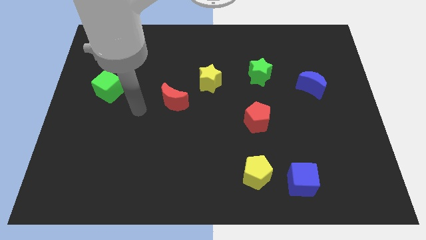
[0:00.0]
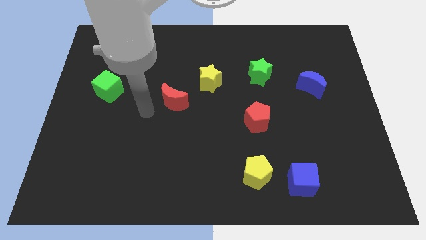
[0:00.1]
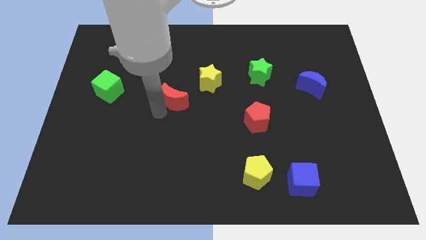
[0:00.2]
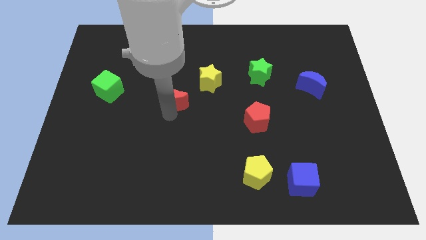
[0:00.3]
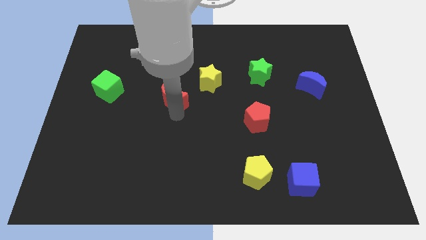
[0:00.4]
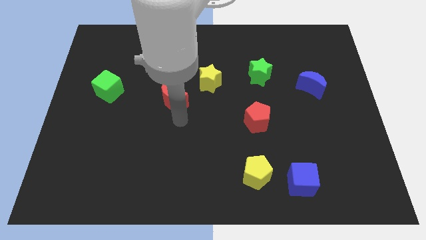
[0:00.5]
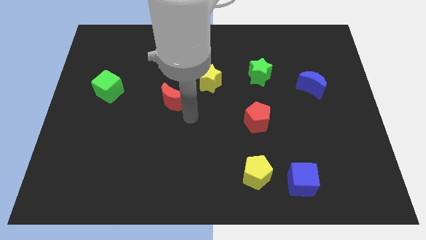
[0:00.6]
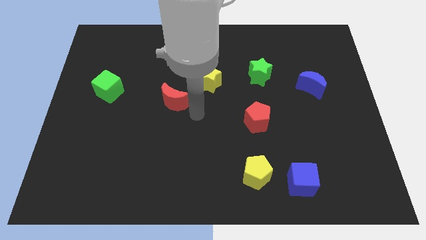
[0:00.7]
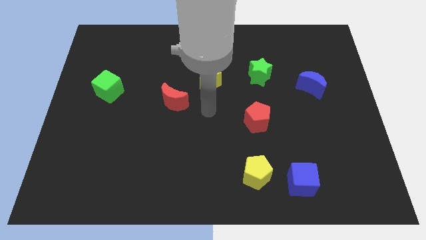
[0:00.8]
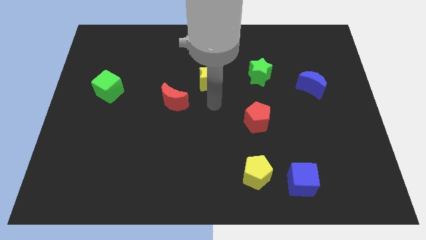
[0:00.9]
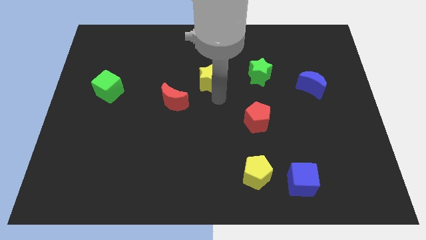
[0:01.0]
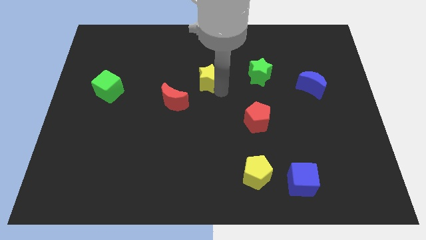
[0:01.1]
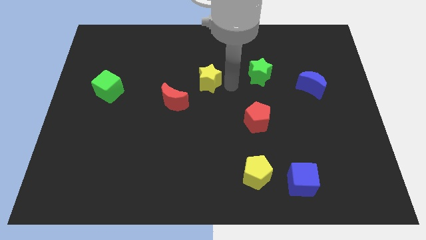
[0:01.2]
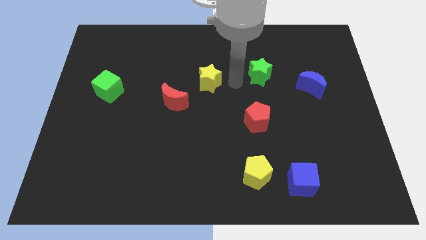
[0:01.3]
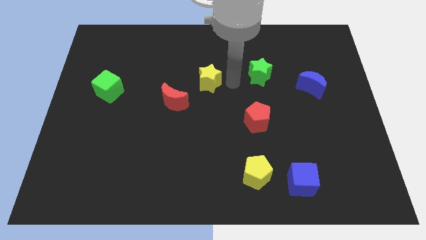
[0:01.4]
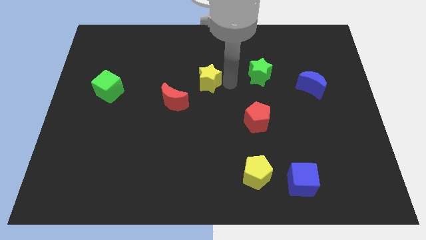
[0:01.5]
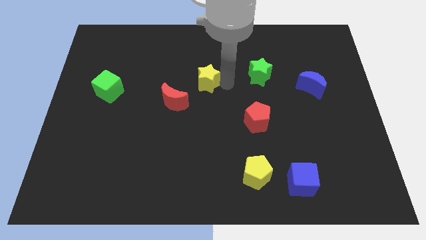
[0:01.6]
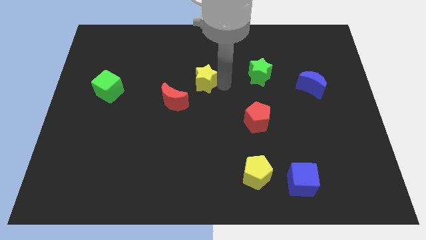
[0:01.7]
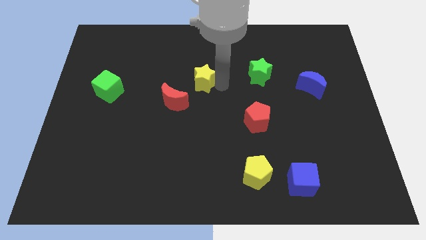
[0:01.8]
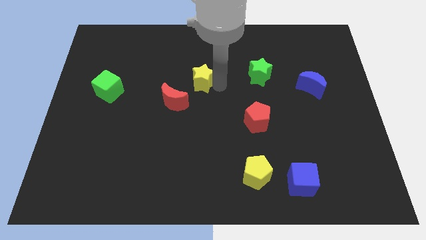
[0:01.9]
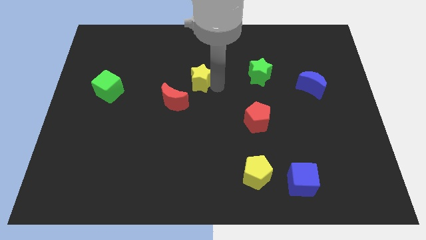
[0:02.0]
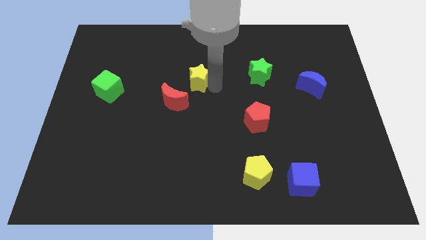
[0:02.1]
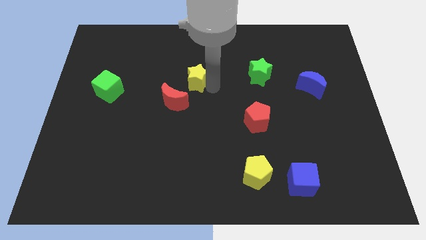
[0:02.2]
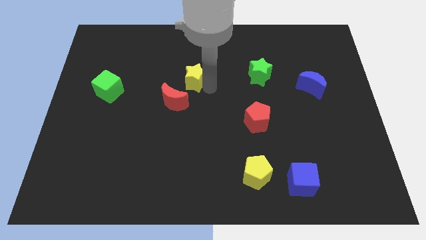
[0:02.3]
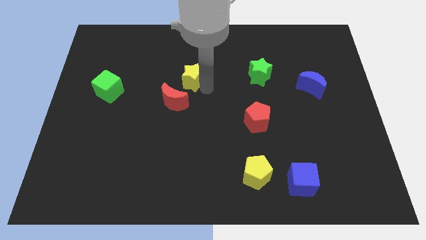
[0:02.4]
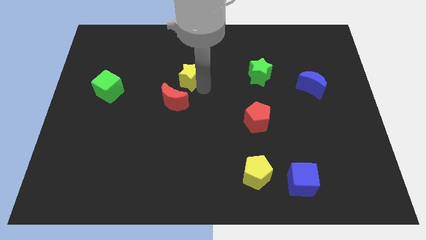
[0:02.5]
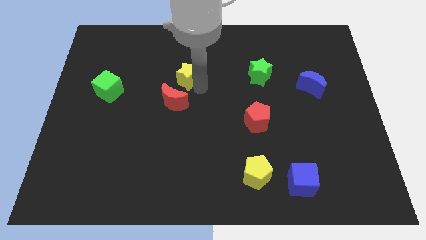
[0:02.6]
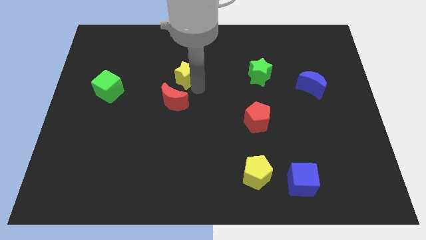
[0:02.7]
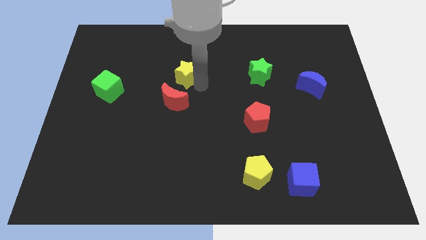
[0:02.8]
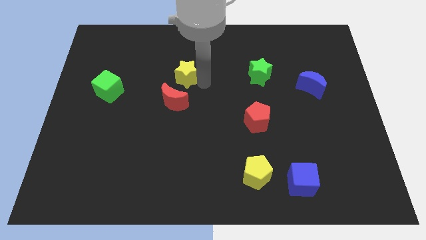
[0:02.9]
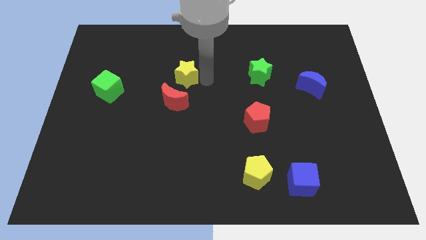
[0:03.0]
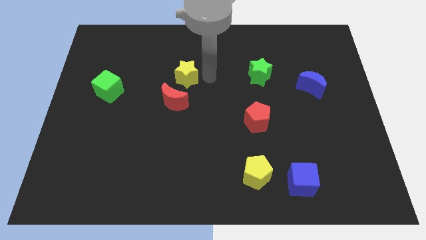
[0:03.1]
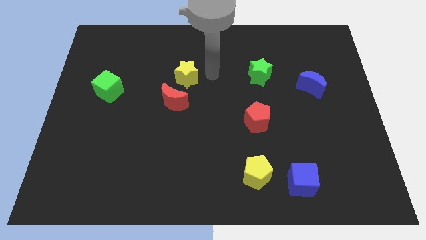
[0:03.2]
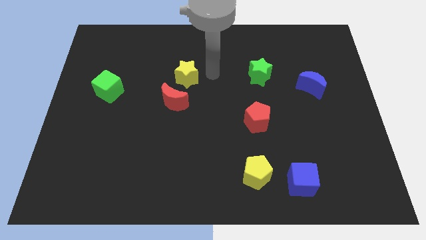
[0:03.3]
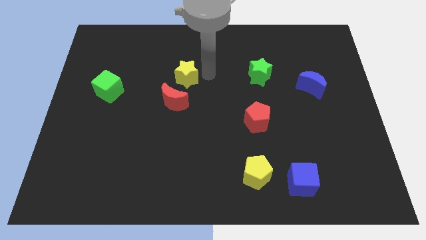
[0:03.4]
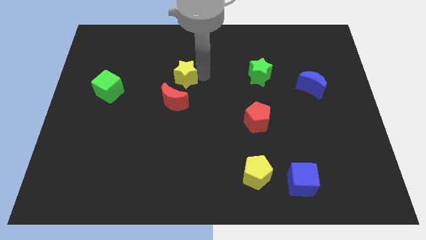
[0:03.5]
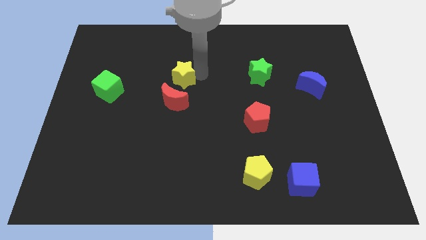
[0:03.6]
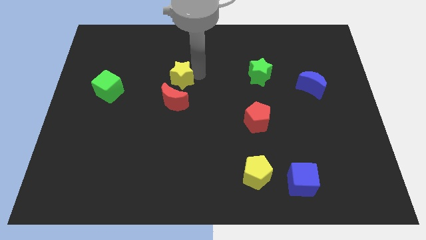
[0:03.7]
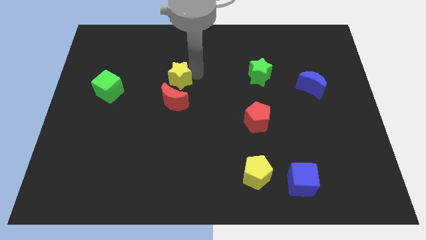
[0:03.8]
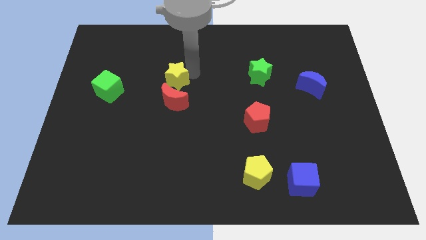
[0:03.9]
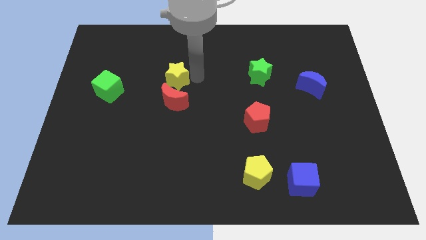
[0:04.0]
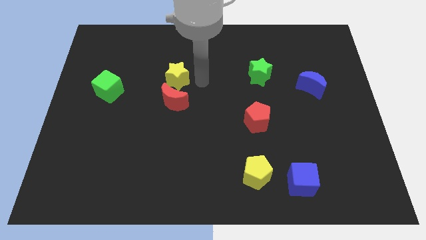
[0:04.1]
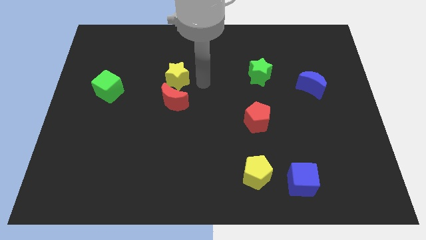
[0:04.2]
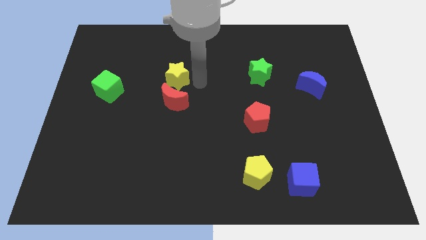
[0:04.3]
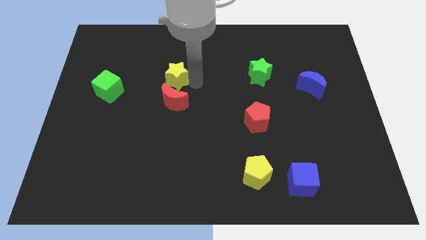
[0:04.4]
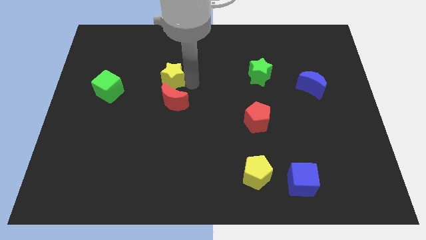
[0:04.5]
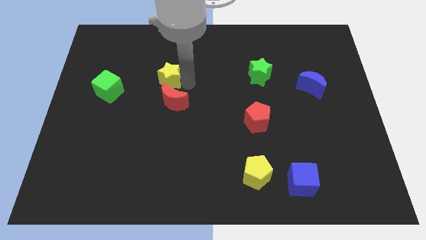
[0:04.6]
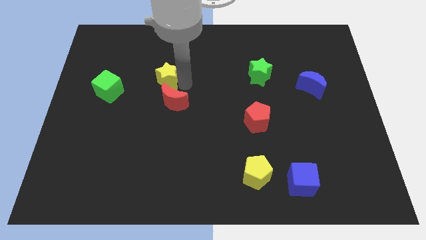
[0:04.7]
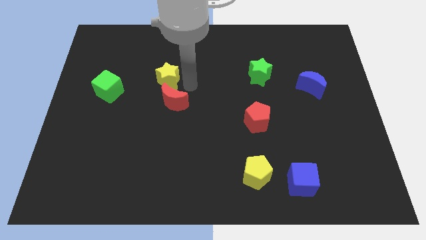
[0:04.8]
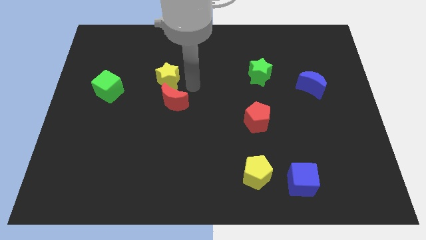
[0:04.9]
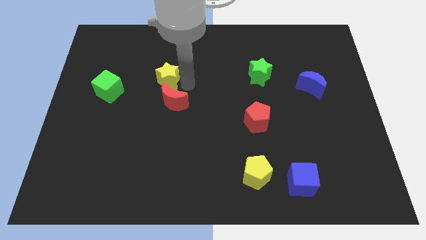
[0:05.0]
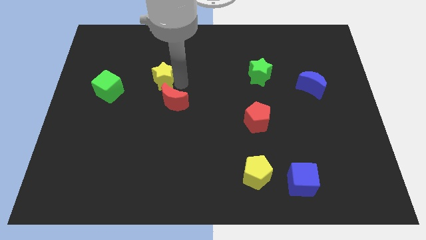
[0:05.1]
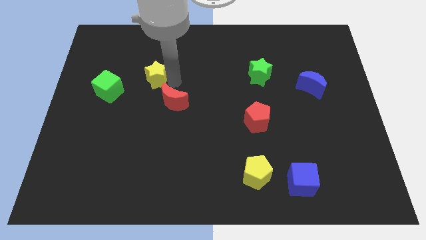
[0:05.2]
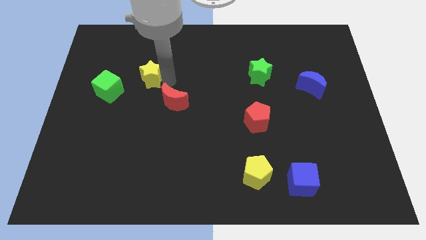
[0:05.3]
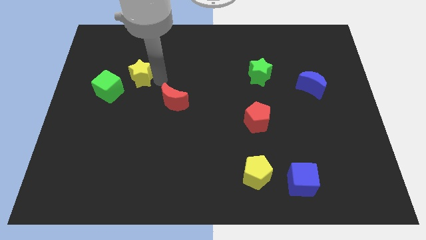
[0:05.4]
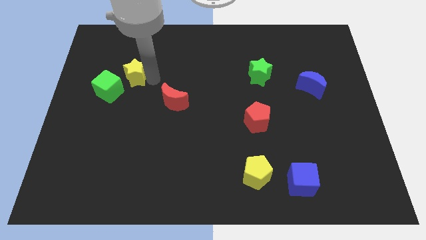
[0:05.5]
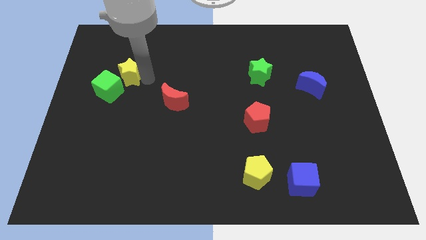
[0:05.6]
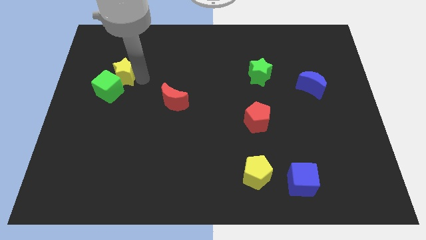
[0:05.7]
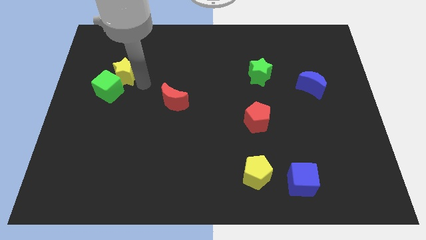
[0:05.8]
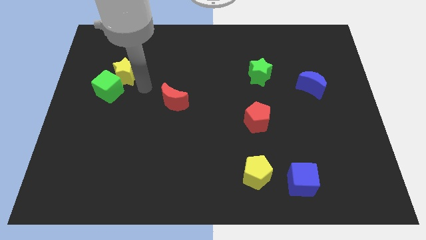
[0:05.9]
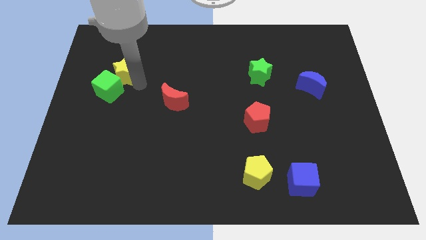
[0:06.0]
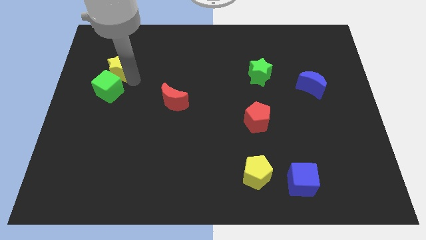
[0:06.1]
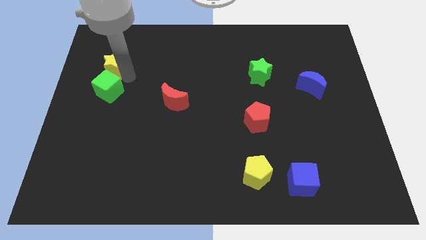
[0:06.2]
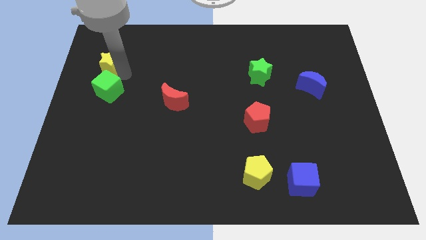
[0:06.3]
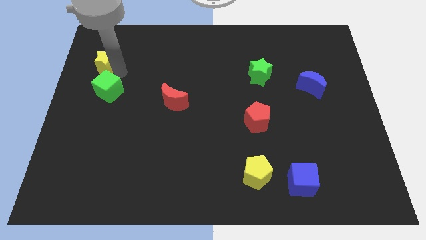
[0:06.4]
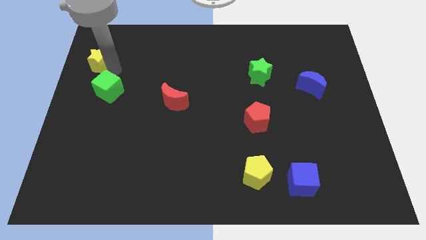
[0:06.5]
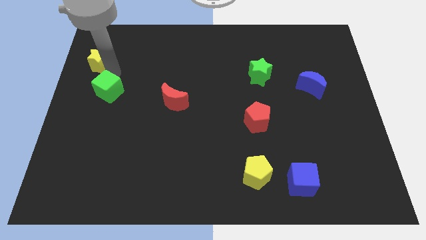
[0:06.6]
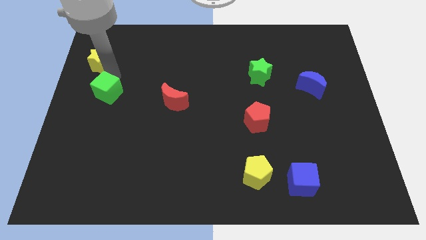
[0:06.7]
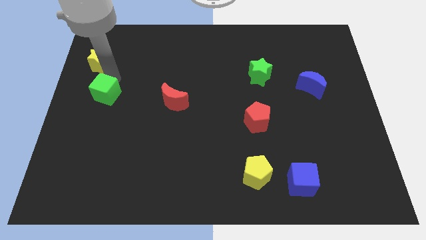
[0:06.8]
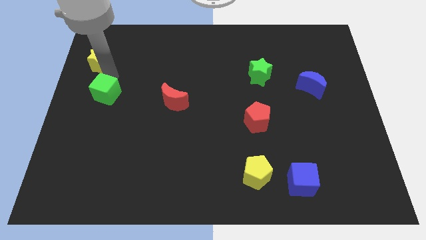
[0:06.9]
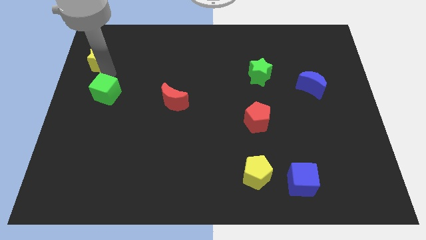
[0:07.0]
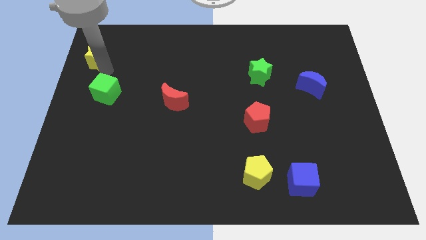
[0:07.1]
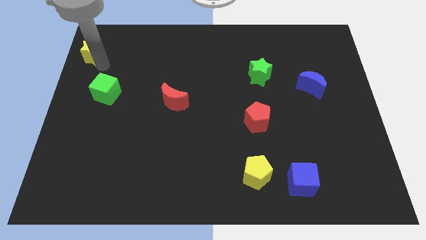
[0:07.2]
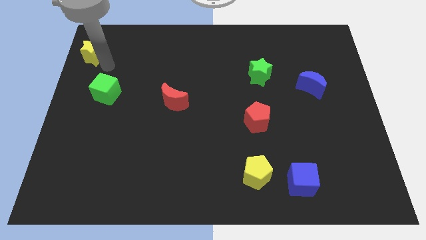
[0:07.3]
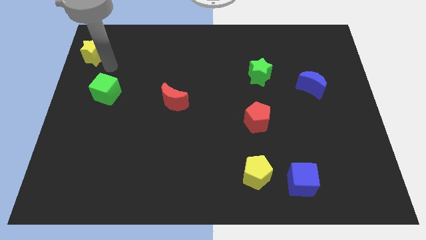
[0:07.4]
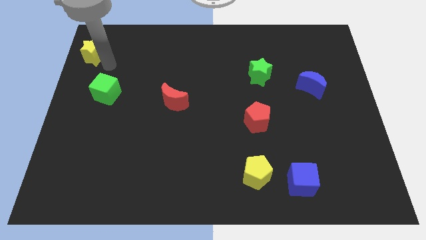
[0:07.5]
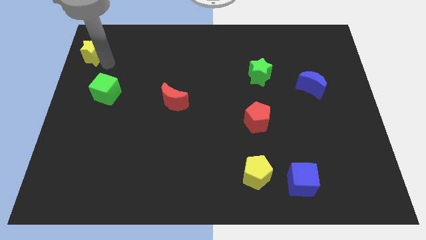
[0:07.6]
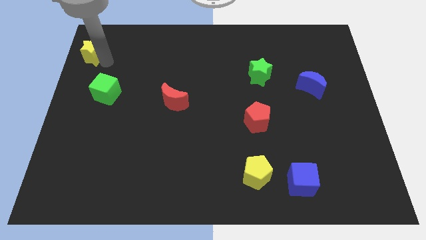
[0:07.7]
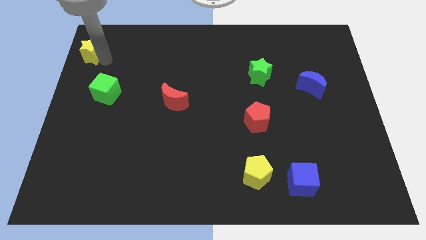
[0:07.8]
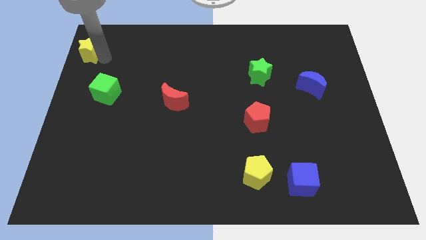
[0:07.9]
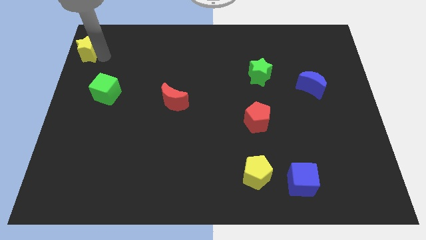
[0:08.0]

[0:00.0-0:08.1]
slide the yellow star to the top left of the board
